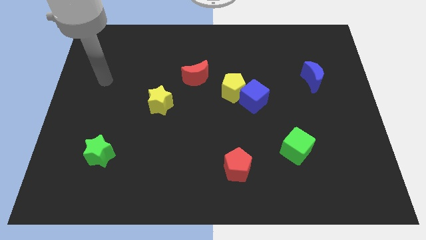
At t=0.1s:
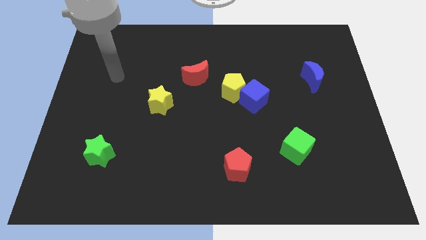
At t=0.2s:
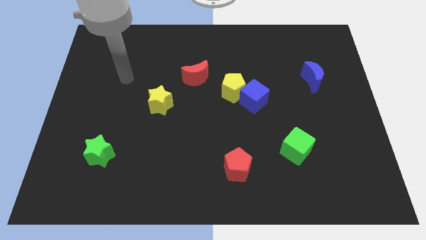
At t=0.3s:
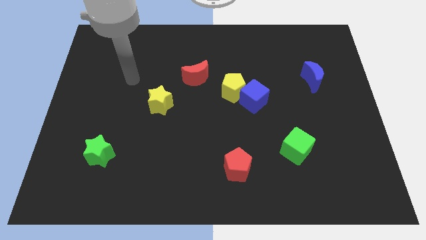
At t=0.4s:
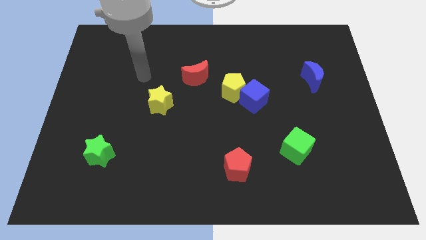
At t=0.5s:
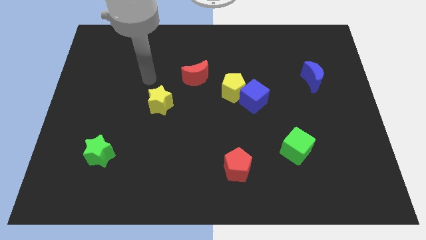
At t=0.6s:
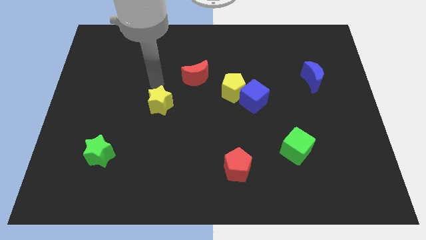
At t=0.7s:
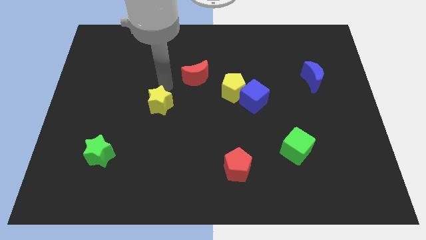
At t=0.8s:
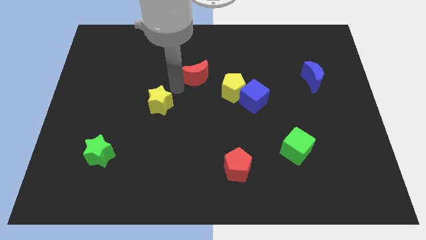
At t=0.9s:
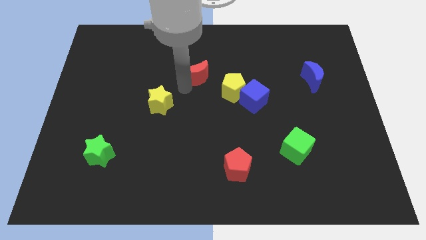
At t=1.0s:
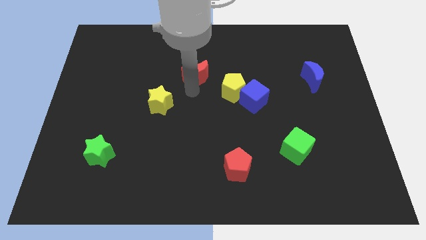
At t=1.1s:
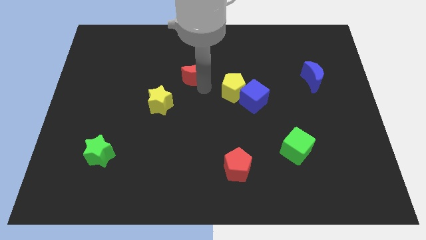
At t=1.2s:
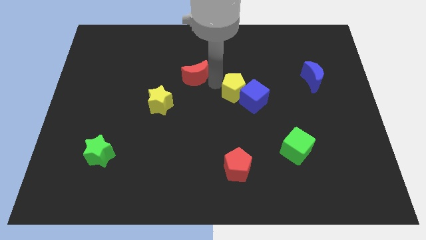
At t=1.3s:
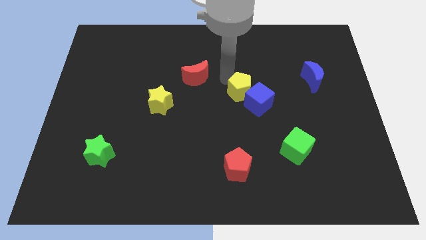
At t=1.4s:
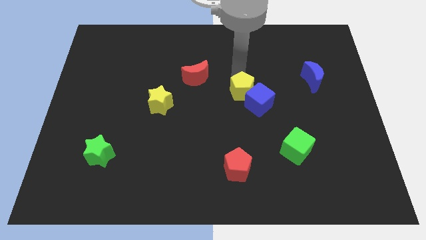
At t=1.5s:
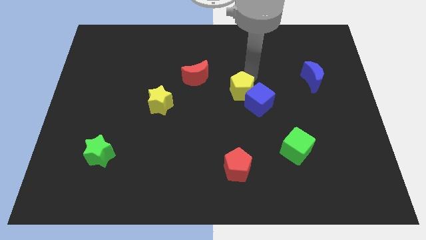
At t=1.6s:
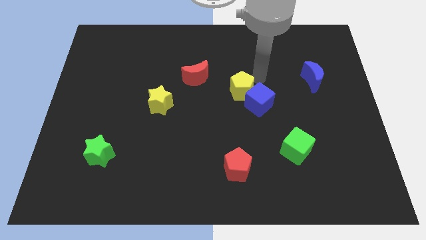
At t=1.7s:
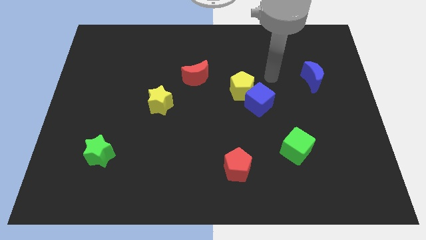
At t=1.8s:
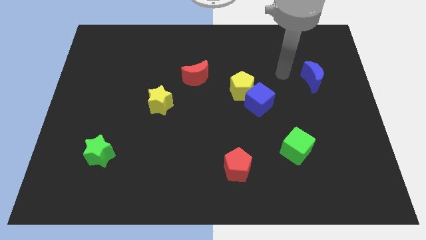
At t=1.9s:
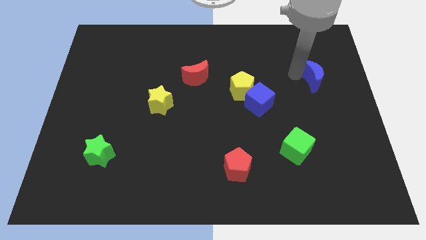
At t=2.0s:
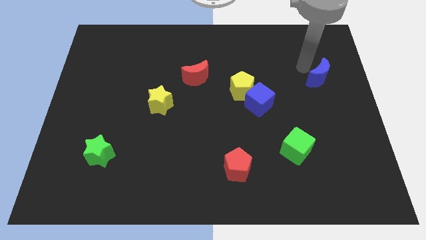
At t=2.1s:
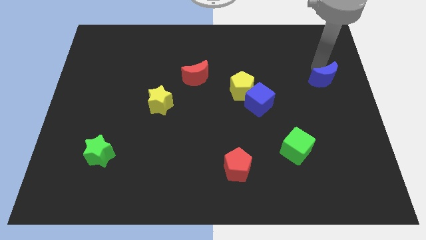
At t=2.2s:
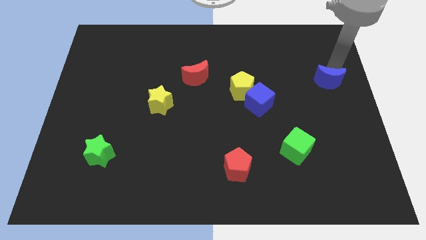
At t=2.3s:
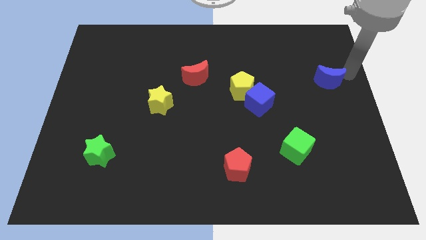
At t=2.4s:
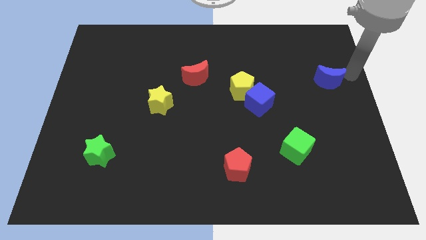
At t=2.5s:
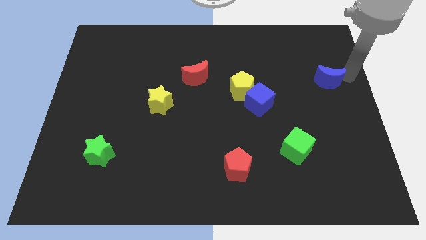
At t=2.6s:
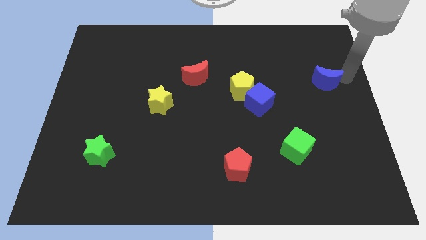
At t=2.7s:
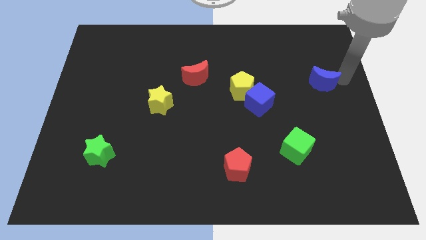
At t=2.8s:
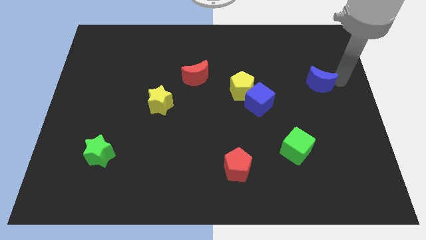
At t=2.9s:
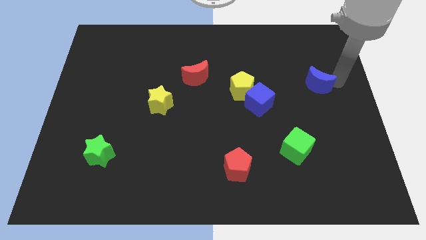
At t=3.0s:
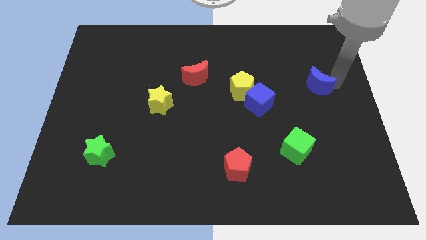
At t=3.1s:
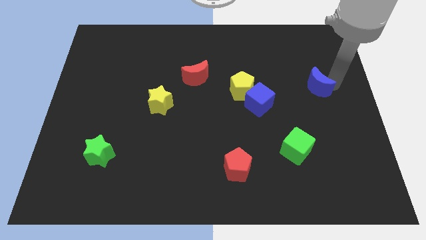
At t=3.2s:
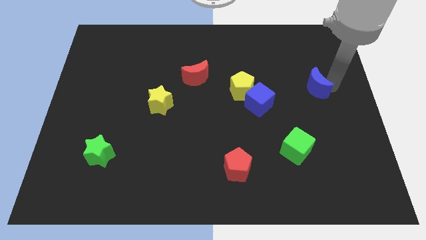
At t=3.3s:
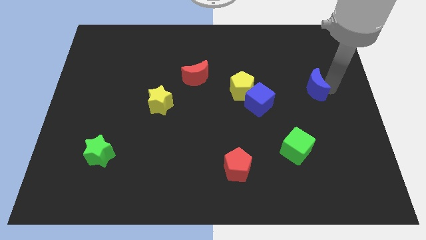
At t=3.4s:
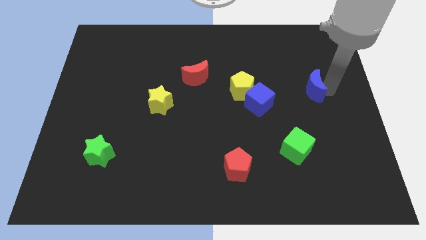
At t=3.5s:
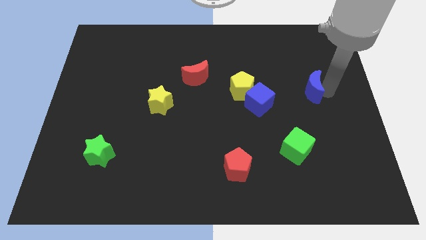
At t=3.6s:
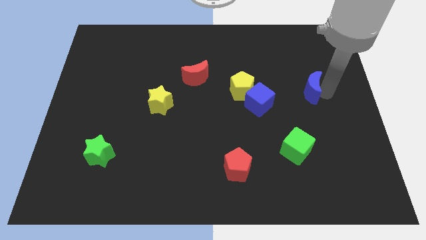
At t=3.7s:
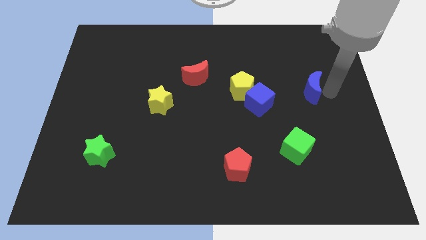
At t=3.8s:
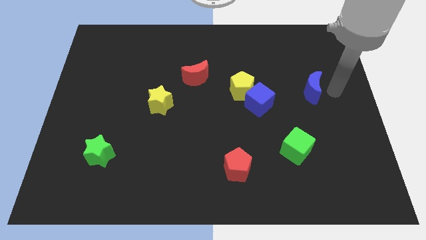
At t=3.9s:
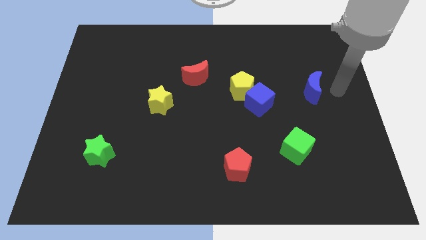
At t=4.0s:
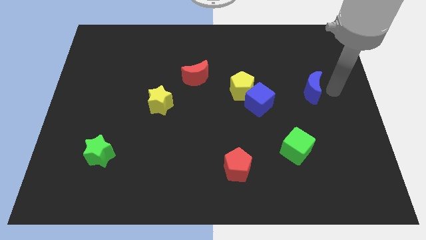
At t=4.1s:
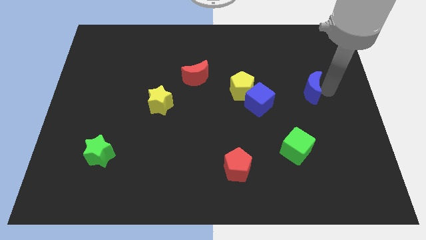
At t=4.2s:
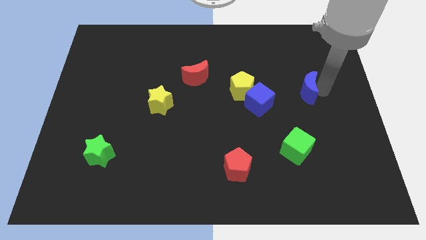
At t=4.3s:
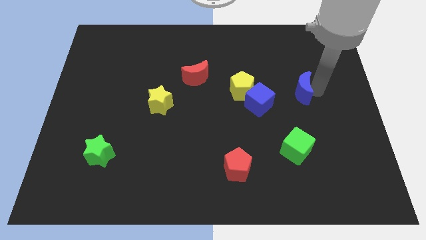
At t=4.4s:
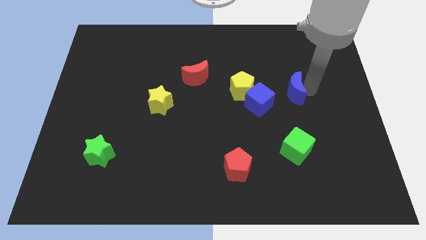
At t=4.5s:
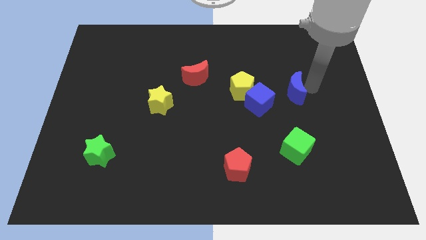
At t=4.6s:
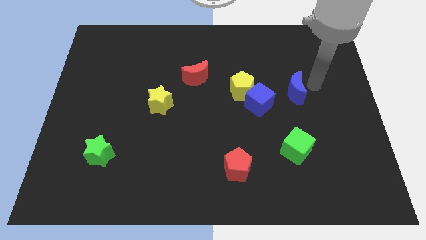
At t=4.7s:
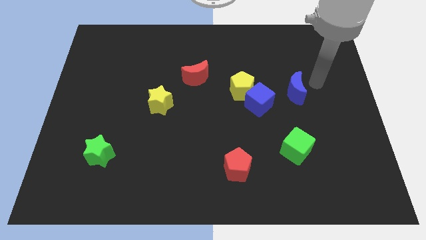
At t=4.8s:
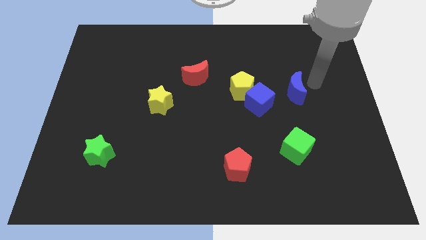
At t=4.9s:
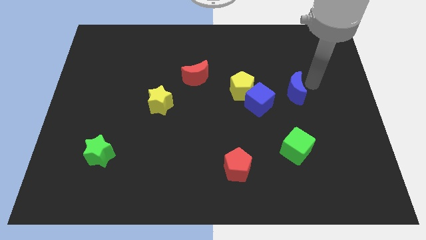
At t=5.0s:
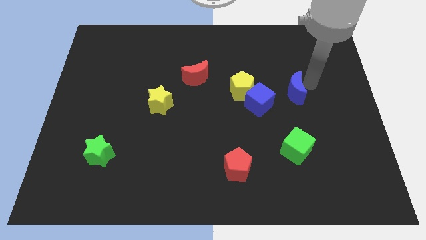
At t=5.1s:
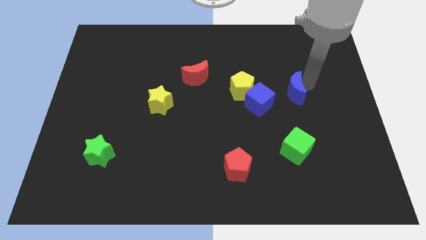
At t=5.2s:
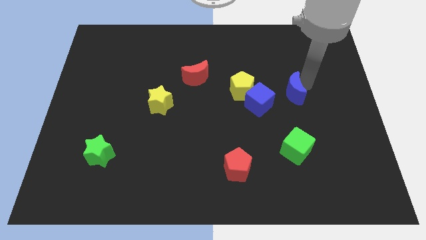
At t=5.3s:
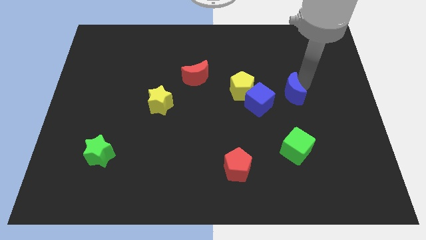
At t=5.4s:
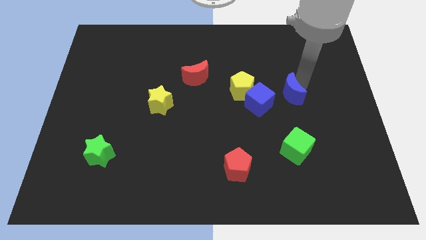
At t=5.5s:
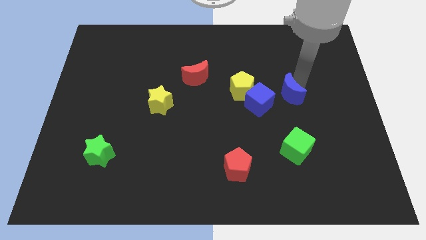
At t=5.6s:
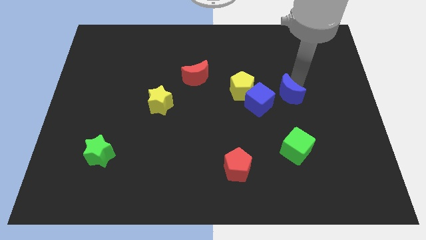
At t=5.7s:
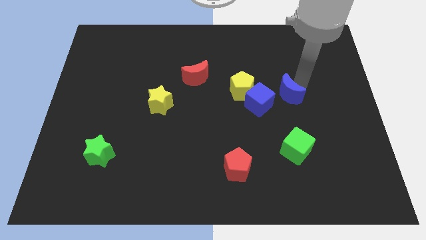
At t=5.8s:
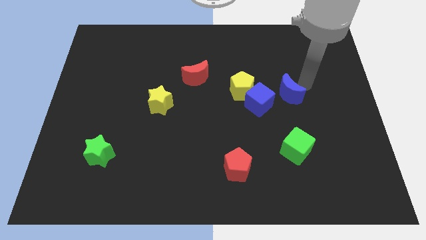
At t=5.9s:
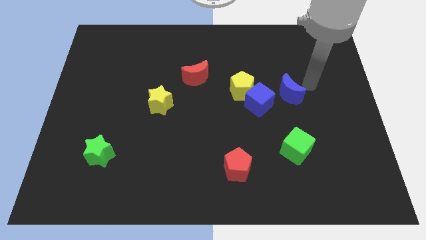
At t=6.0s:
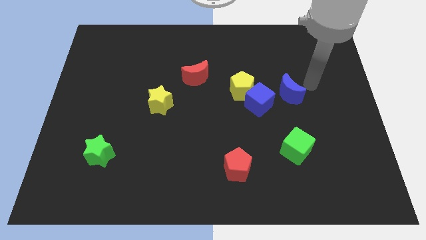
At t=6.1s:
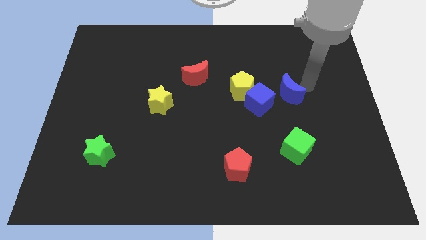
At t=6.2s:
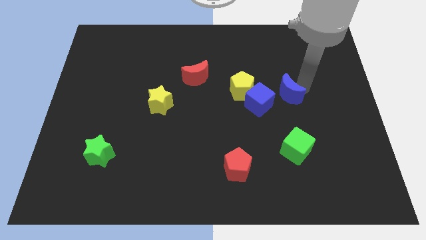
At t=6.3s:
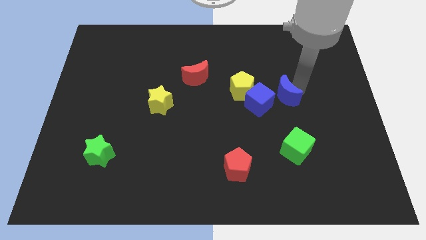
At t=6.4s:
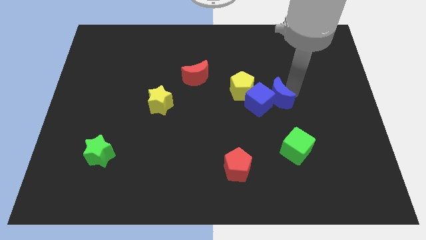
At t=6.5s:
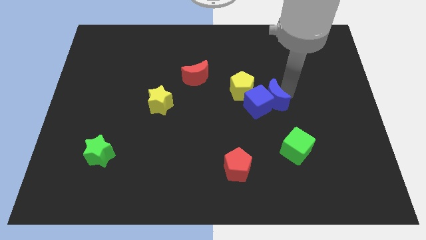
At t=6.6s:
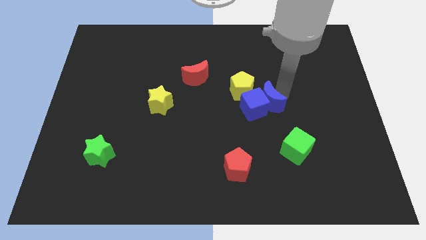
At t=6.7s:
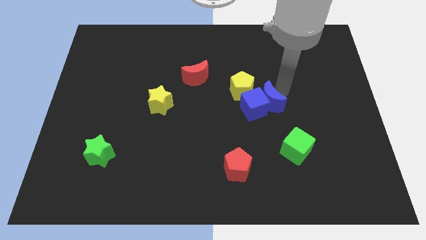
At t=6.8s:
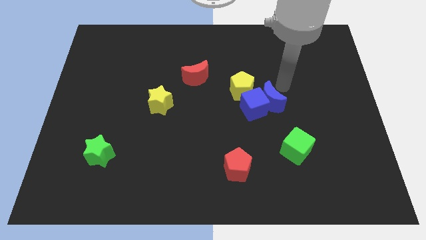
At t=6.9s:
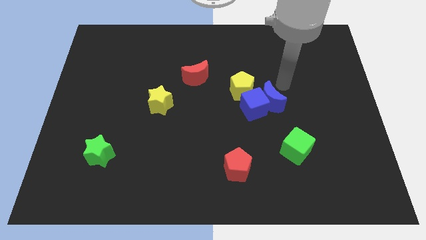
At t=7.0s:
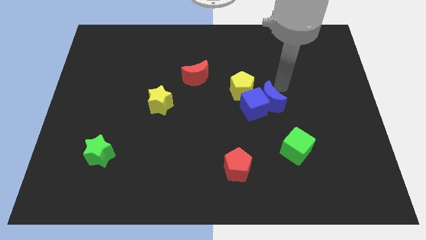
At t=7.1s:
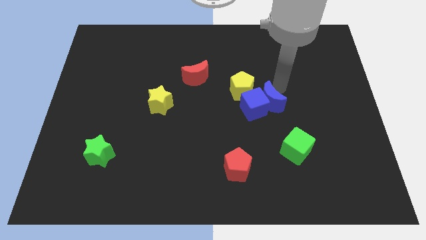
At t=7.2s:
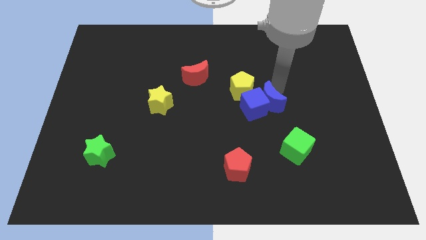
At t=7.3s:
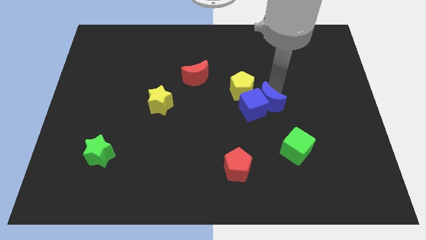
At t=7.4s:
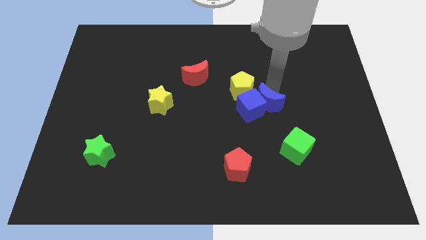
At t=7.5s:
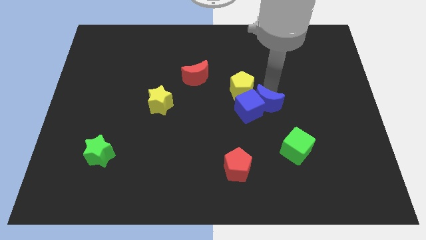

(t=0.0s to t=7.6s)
push the blue moon to the middle of the board
